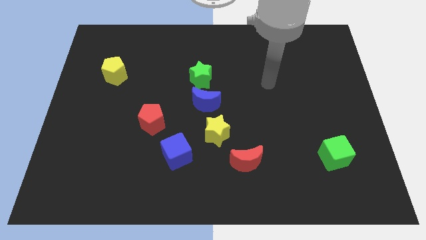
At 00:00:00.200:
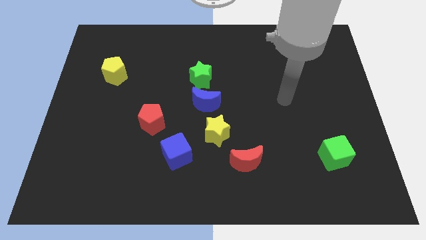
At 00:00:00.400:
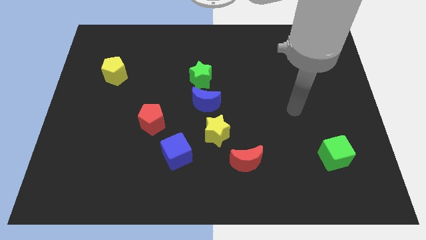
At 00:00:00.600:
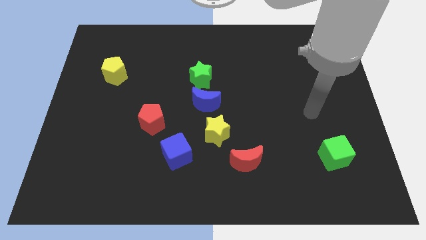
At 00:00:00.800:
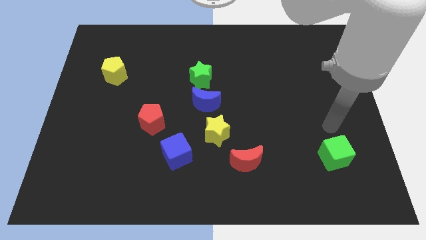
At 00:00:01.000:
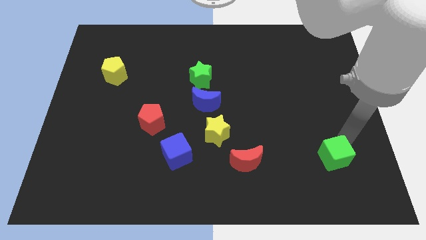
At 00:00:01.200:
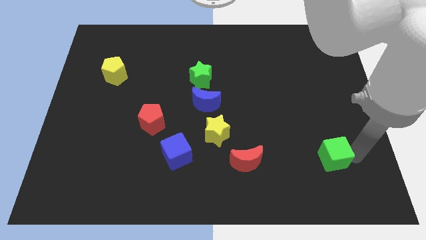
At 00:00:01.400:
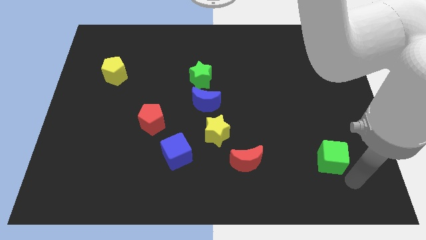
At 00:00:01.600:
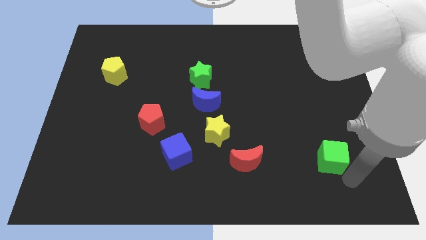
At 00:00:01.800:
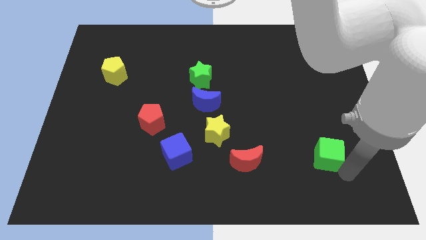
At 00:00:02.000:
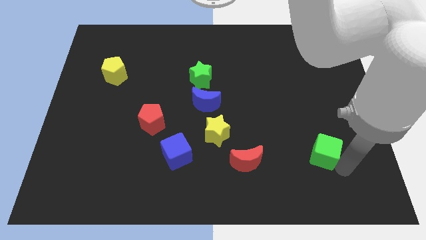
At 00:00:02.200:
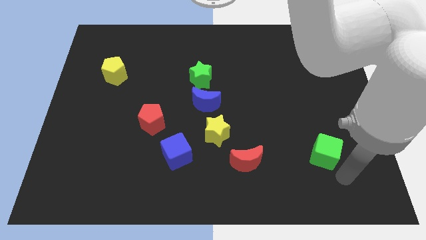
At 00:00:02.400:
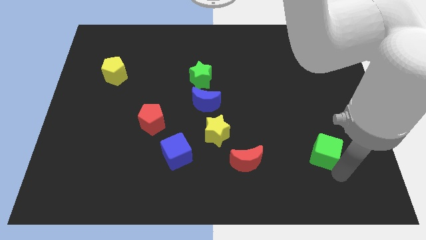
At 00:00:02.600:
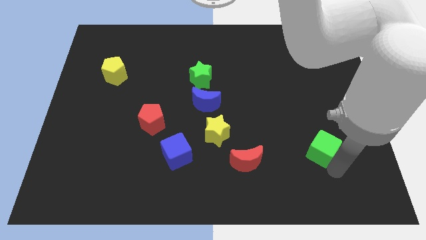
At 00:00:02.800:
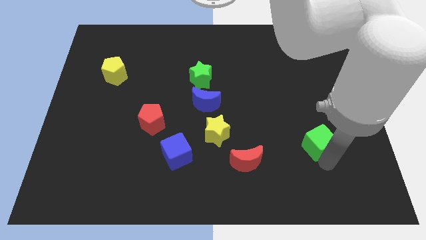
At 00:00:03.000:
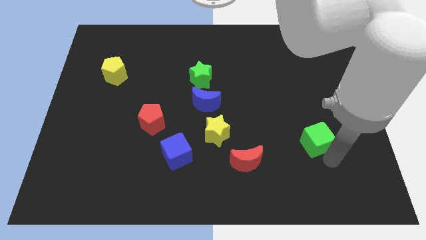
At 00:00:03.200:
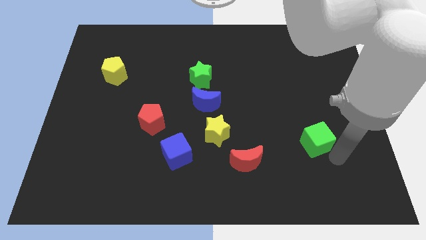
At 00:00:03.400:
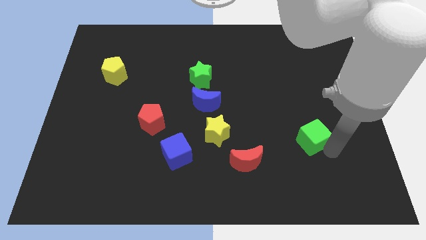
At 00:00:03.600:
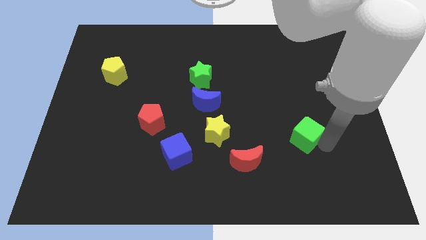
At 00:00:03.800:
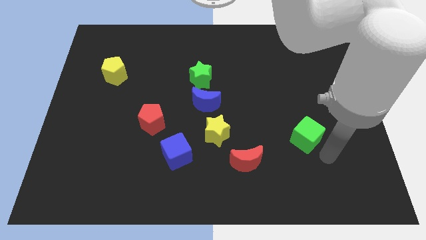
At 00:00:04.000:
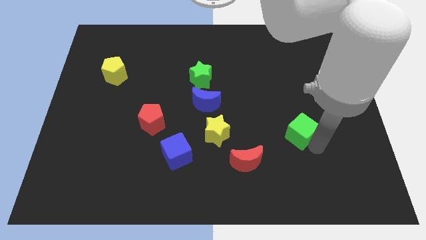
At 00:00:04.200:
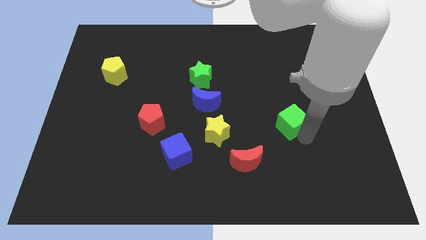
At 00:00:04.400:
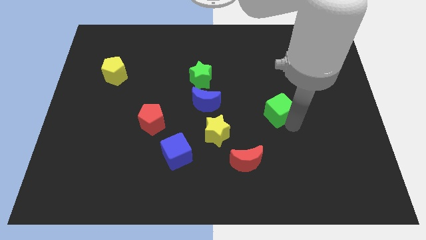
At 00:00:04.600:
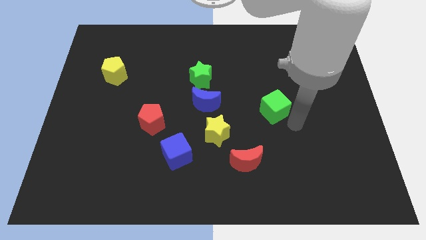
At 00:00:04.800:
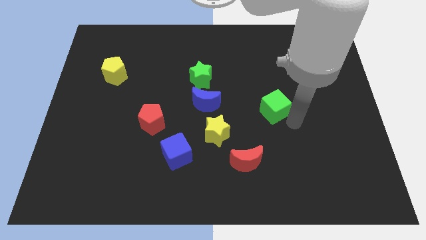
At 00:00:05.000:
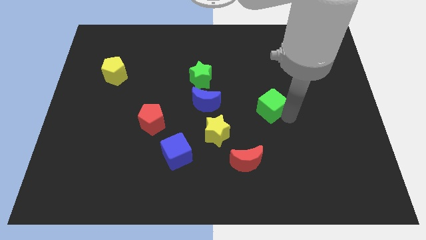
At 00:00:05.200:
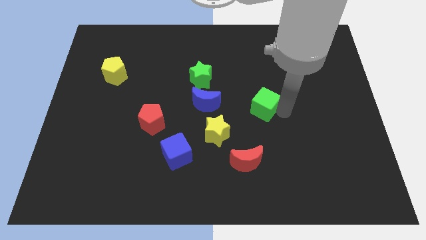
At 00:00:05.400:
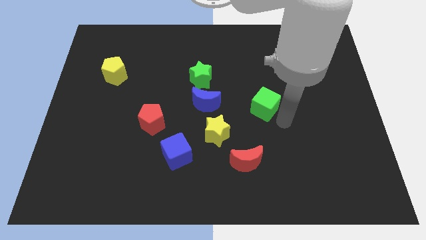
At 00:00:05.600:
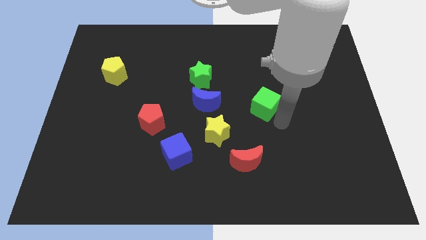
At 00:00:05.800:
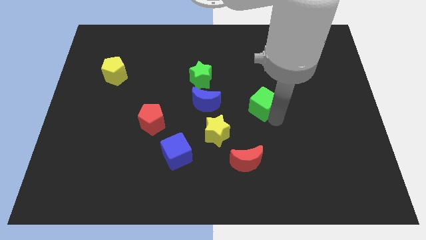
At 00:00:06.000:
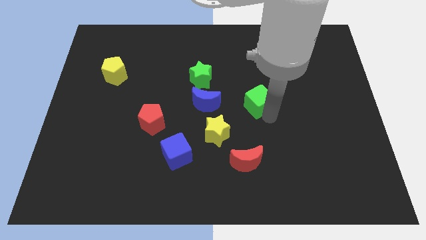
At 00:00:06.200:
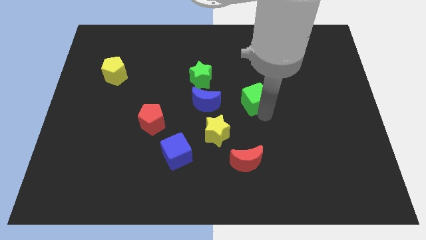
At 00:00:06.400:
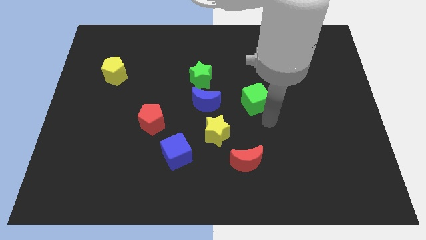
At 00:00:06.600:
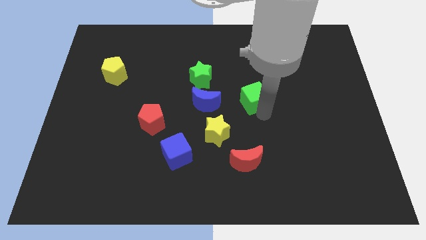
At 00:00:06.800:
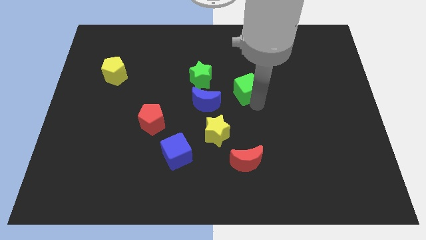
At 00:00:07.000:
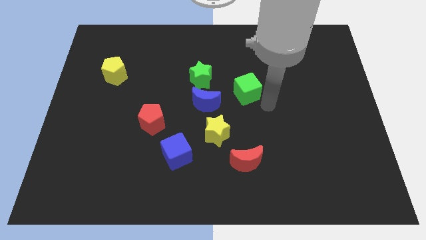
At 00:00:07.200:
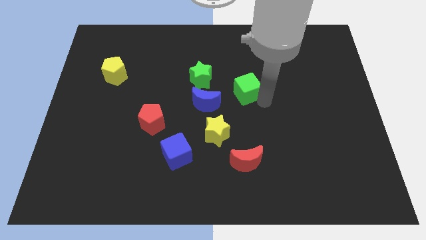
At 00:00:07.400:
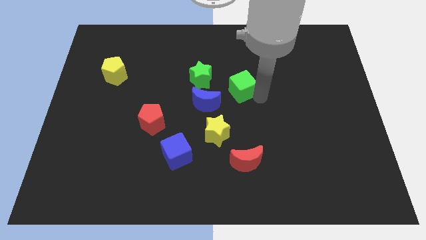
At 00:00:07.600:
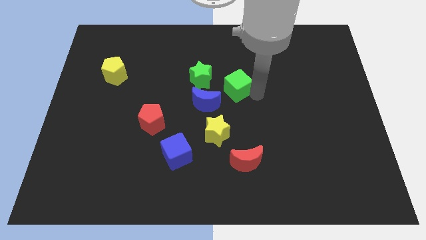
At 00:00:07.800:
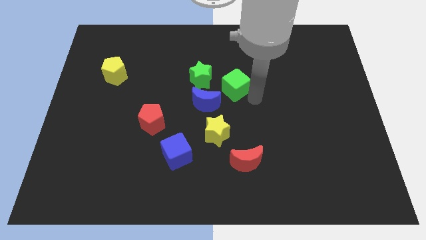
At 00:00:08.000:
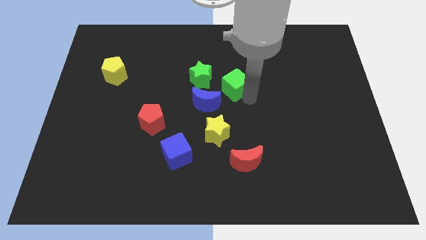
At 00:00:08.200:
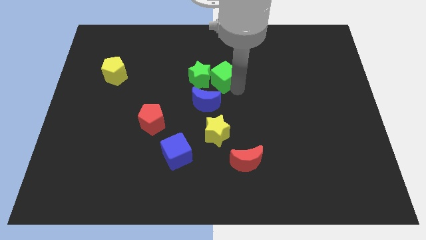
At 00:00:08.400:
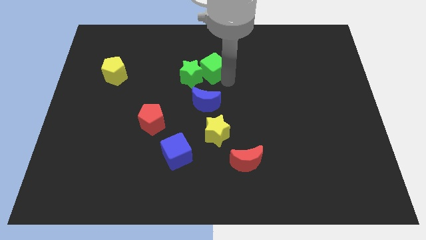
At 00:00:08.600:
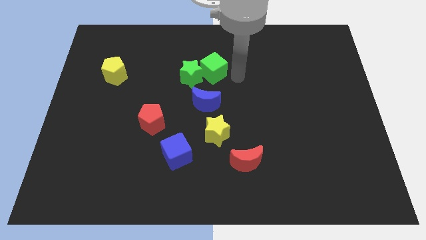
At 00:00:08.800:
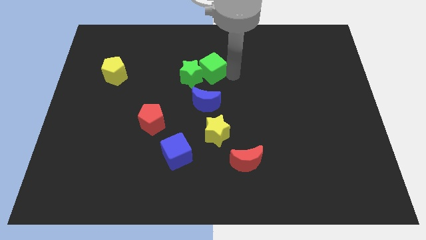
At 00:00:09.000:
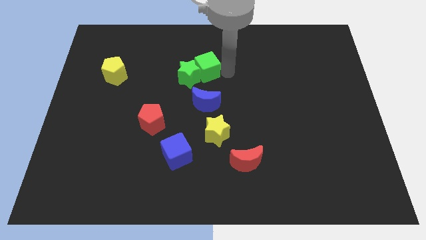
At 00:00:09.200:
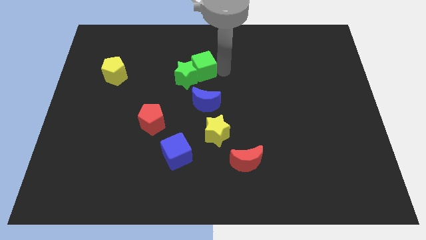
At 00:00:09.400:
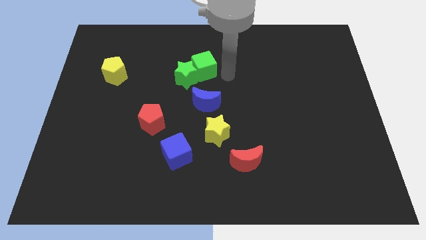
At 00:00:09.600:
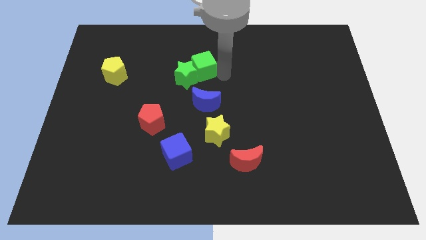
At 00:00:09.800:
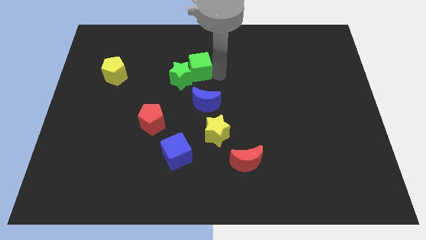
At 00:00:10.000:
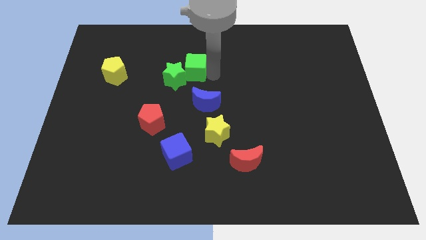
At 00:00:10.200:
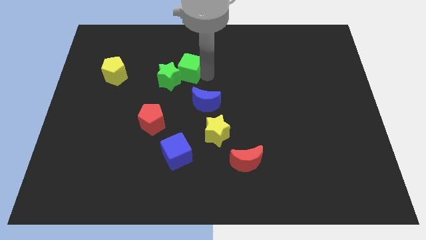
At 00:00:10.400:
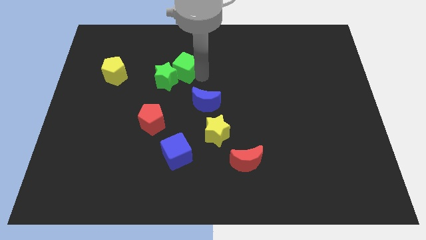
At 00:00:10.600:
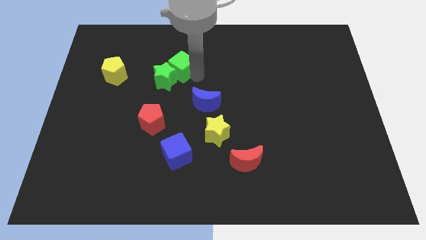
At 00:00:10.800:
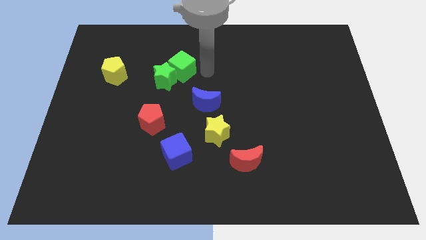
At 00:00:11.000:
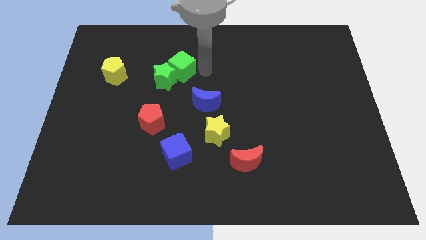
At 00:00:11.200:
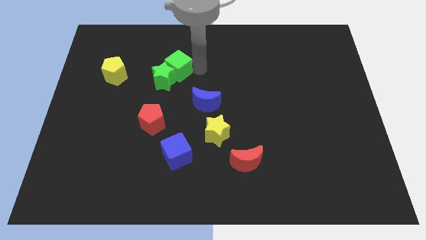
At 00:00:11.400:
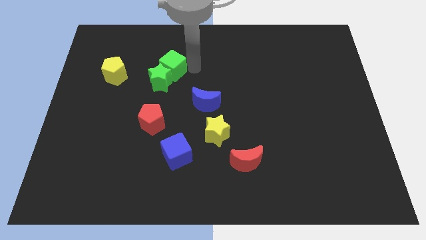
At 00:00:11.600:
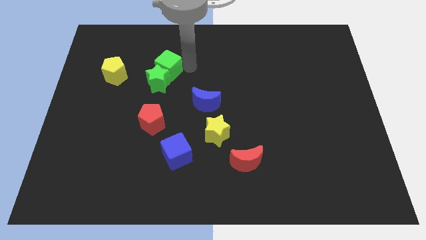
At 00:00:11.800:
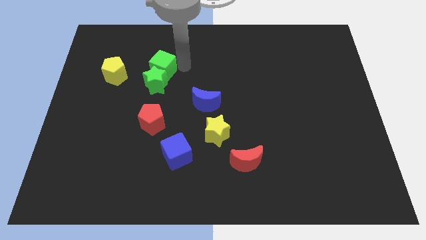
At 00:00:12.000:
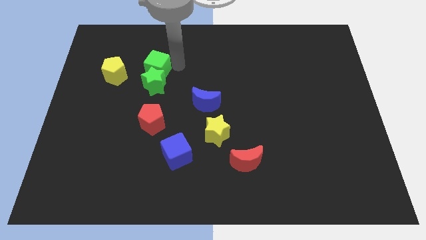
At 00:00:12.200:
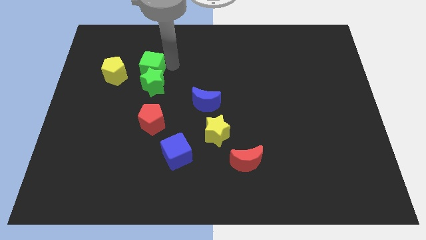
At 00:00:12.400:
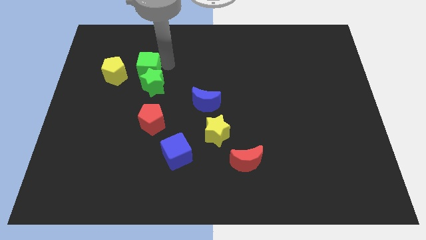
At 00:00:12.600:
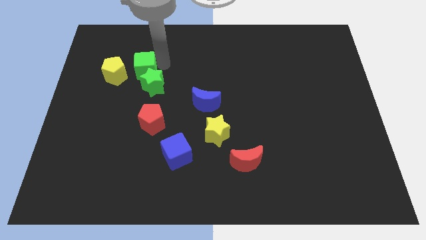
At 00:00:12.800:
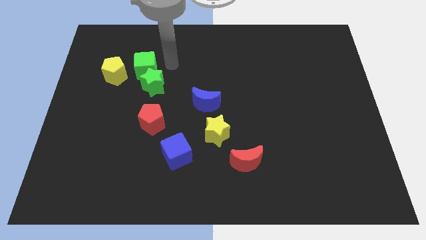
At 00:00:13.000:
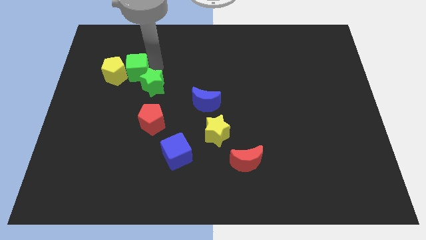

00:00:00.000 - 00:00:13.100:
slide the green cube next to the yellow pentagon

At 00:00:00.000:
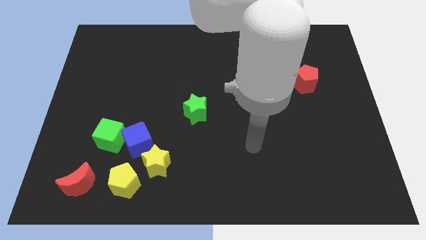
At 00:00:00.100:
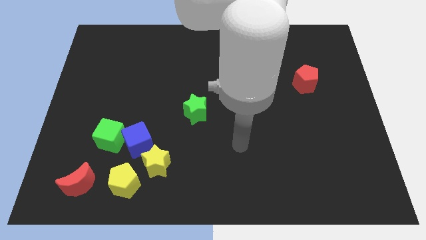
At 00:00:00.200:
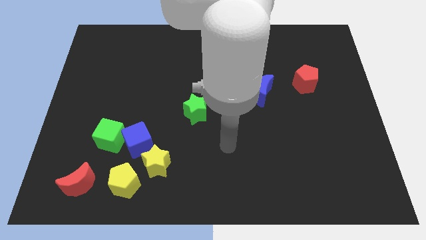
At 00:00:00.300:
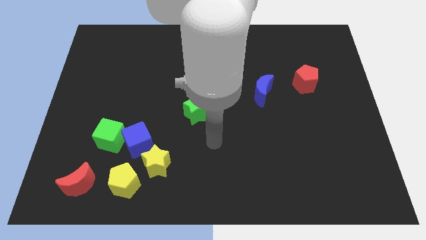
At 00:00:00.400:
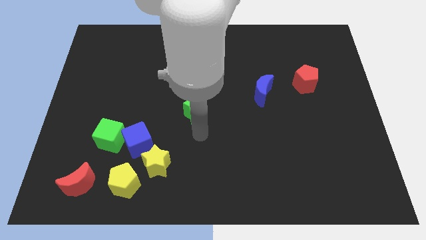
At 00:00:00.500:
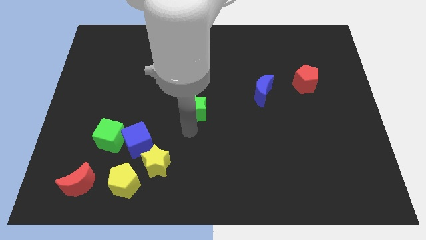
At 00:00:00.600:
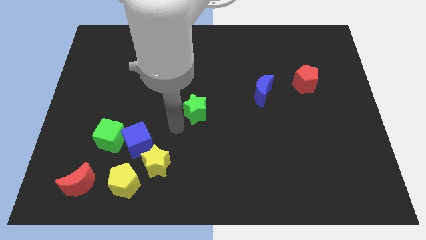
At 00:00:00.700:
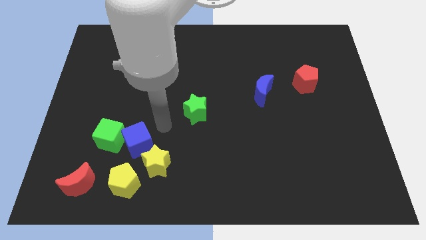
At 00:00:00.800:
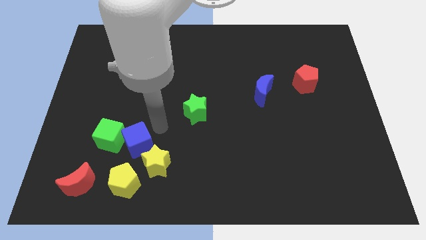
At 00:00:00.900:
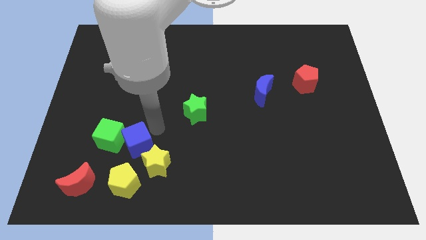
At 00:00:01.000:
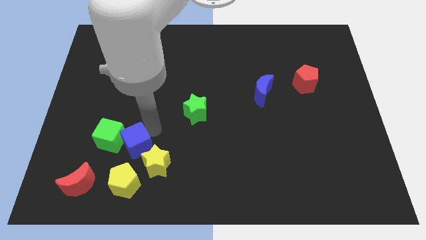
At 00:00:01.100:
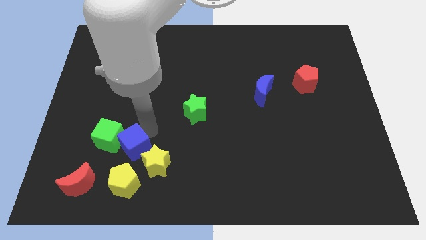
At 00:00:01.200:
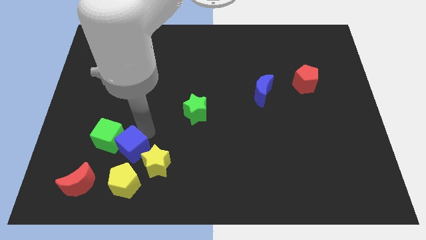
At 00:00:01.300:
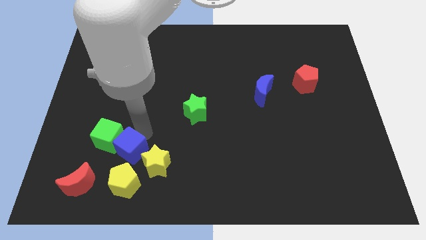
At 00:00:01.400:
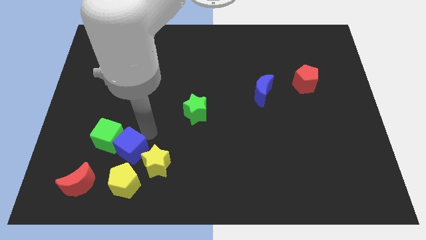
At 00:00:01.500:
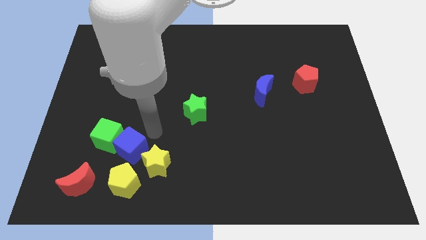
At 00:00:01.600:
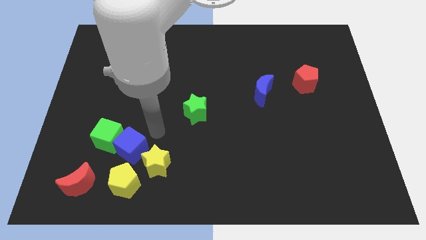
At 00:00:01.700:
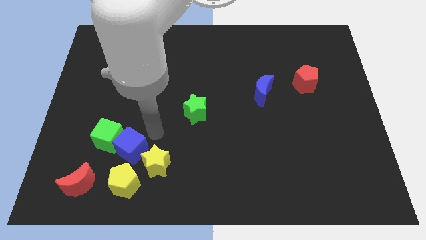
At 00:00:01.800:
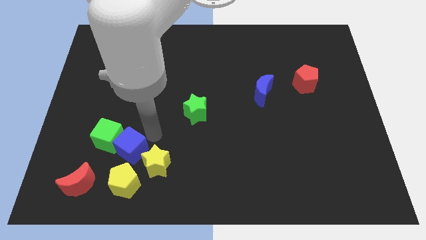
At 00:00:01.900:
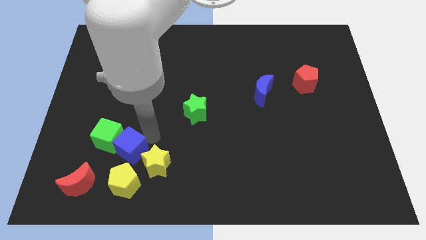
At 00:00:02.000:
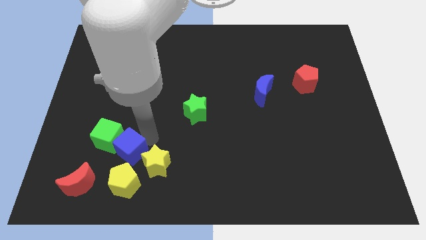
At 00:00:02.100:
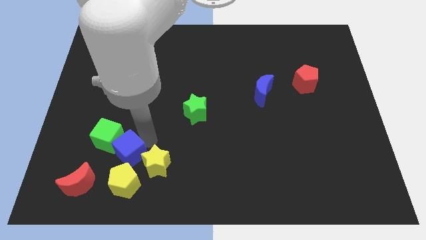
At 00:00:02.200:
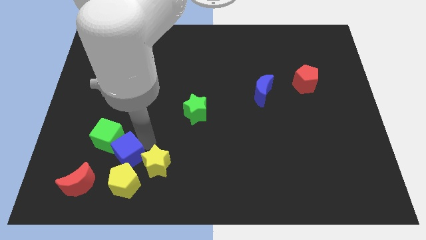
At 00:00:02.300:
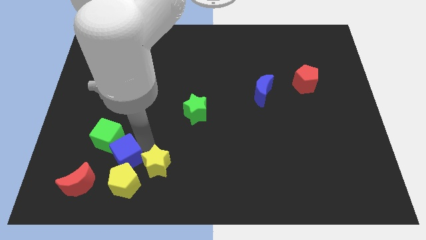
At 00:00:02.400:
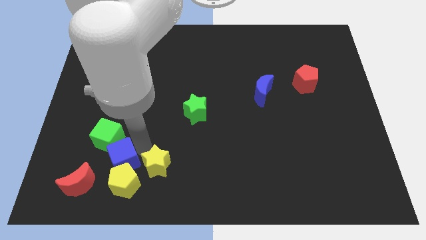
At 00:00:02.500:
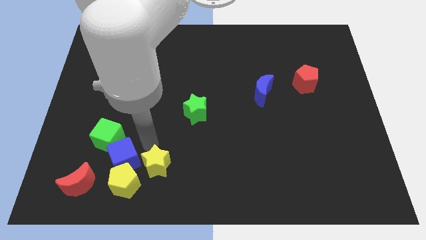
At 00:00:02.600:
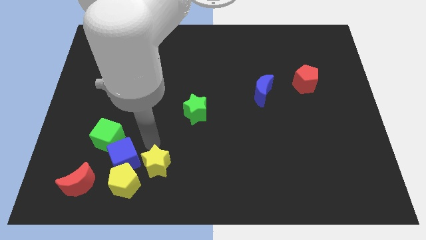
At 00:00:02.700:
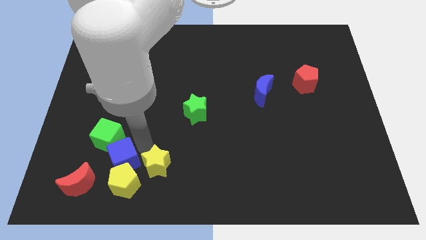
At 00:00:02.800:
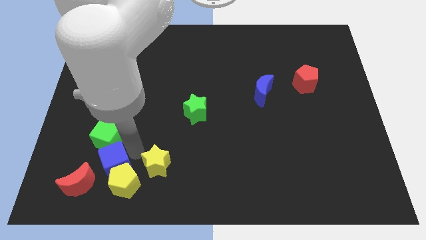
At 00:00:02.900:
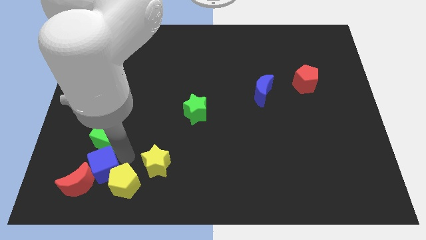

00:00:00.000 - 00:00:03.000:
slide the blue cube next to the red moon
